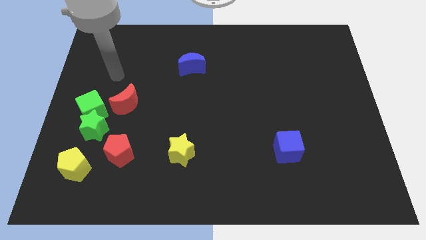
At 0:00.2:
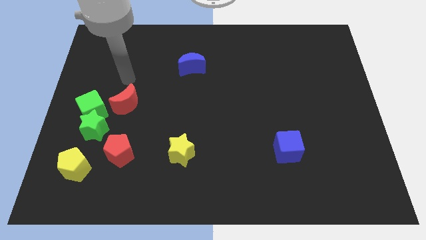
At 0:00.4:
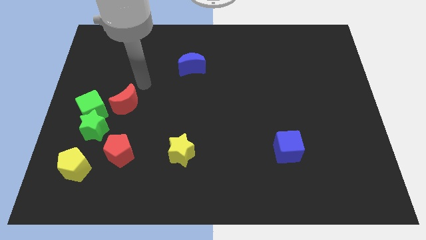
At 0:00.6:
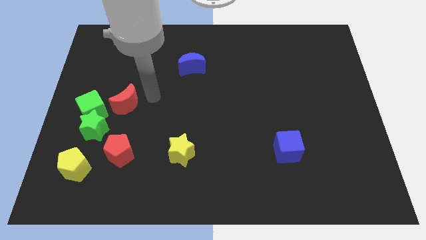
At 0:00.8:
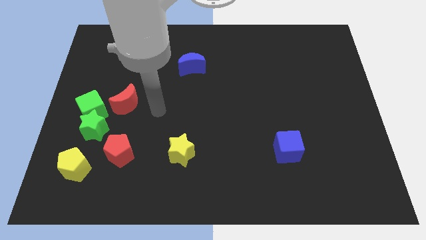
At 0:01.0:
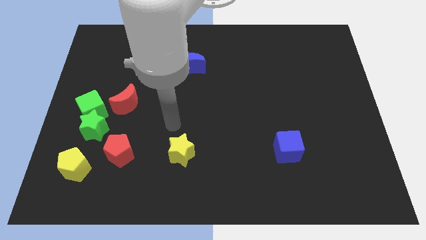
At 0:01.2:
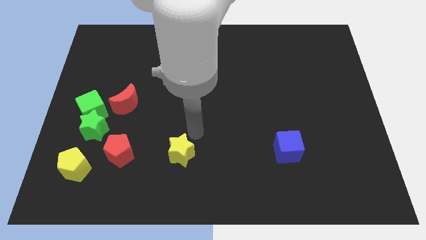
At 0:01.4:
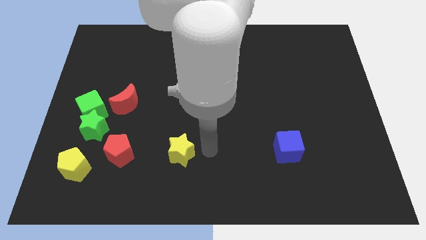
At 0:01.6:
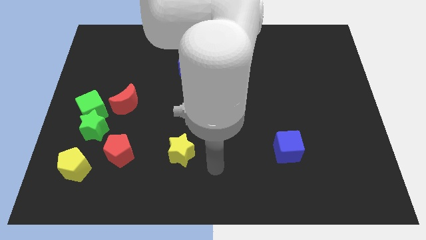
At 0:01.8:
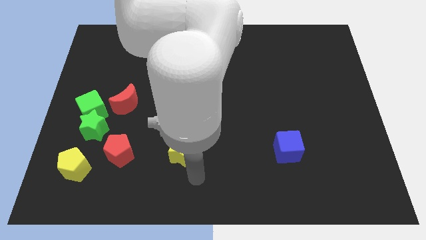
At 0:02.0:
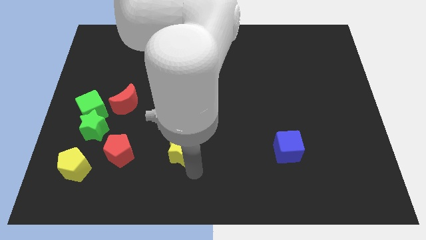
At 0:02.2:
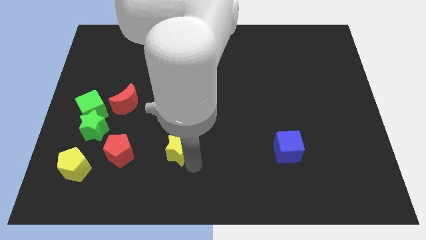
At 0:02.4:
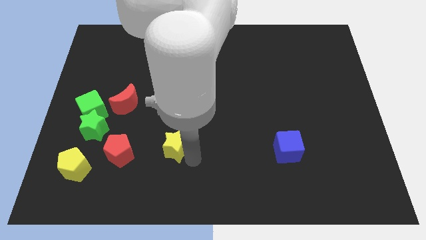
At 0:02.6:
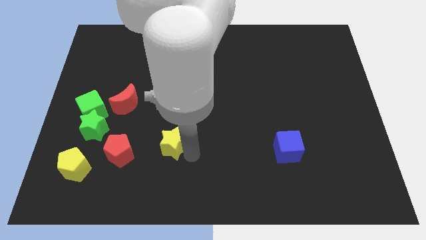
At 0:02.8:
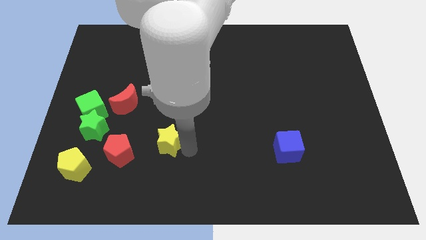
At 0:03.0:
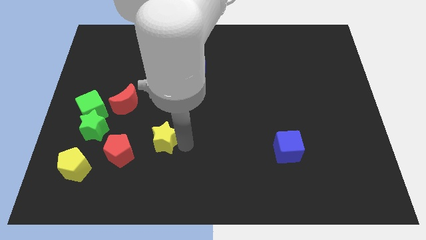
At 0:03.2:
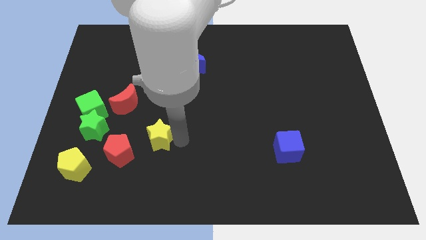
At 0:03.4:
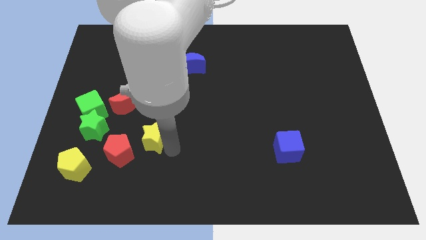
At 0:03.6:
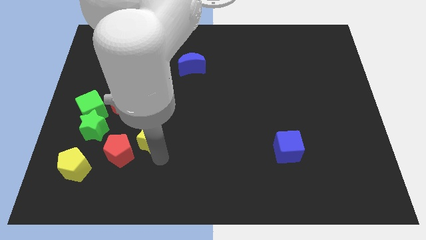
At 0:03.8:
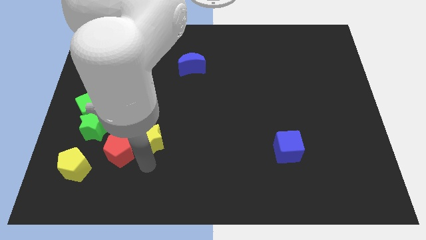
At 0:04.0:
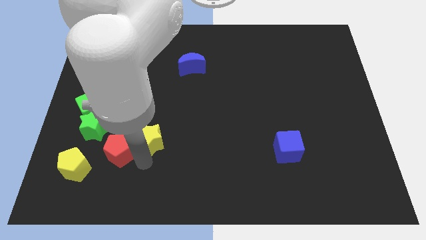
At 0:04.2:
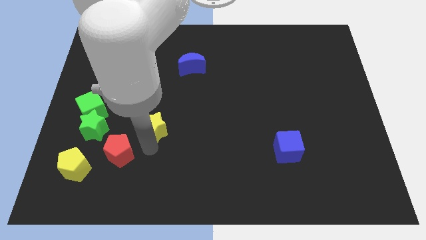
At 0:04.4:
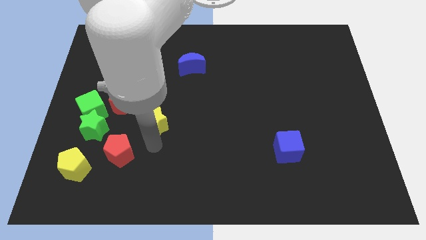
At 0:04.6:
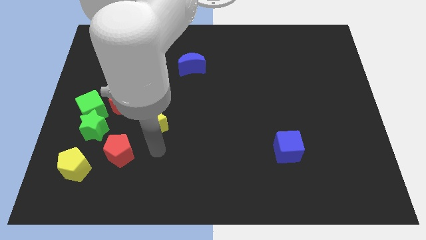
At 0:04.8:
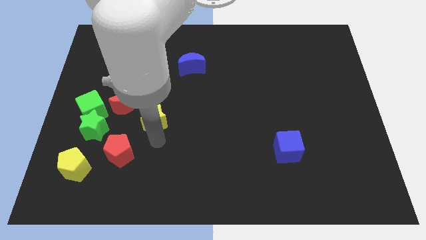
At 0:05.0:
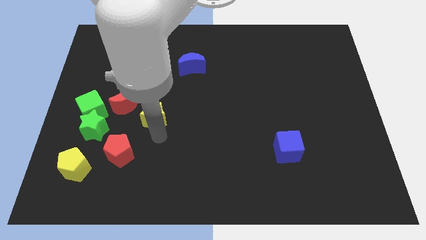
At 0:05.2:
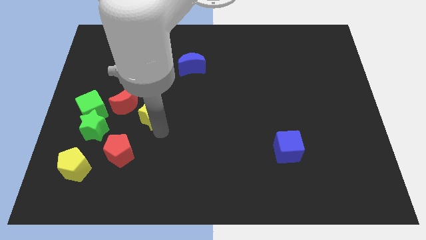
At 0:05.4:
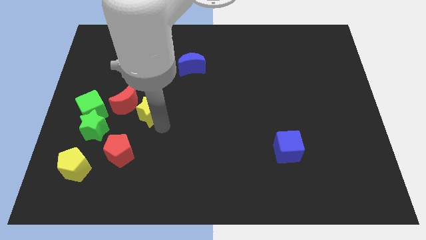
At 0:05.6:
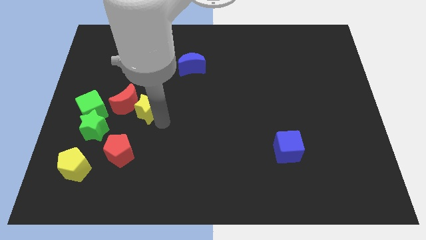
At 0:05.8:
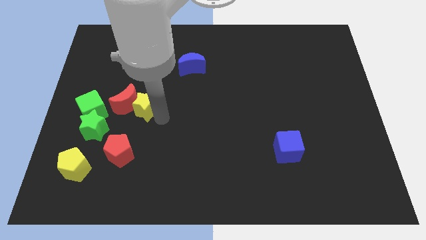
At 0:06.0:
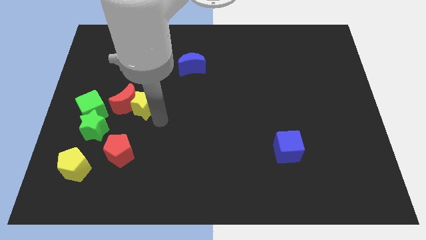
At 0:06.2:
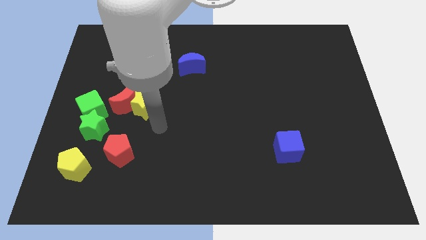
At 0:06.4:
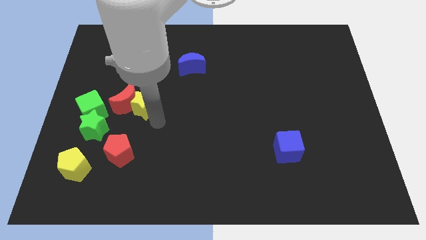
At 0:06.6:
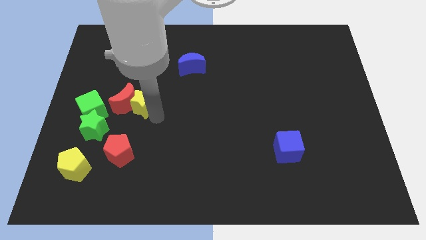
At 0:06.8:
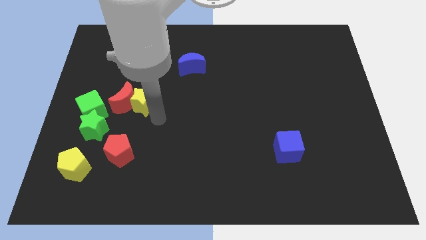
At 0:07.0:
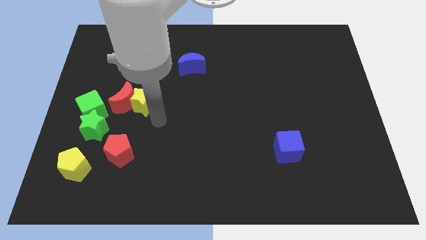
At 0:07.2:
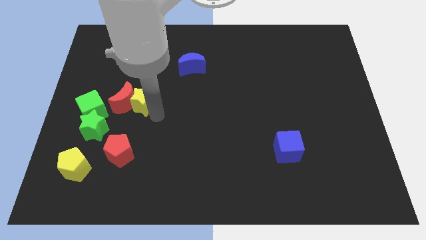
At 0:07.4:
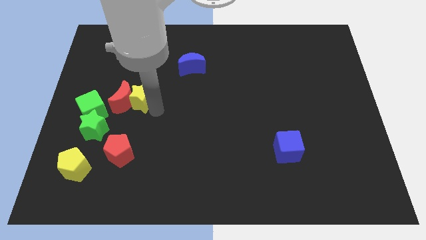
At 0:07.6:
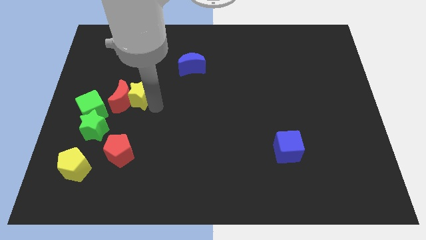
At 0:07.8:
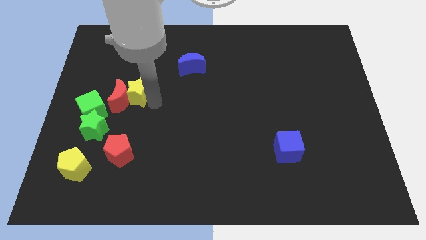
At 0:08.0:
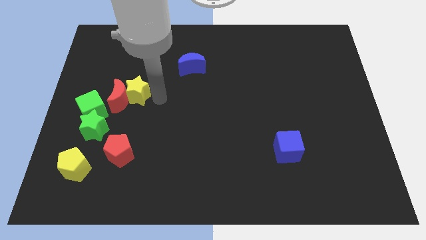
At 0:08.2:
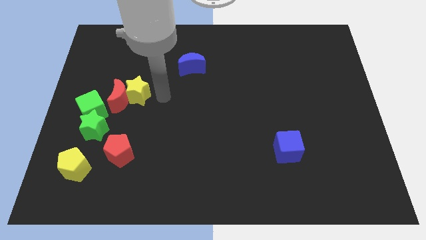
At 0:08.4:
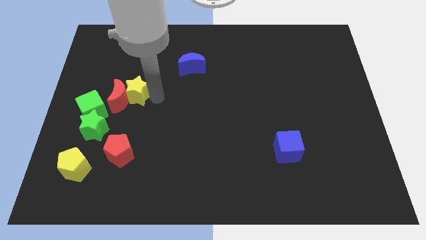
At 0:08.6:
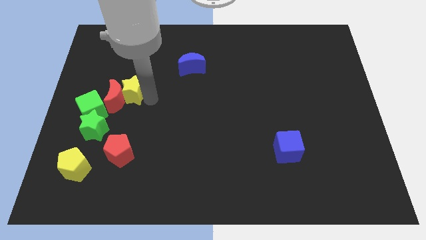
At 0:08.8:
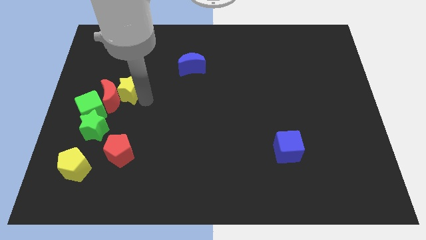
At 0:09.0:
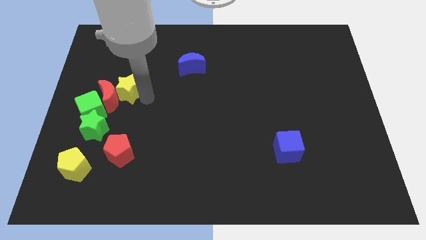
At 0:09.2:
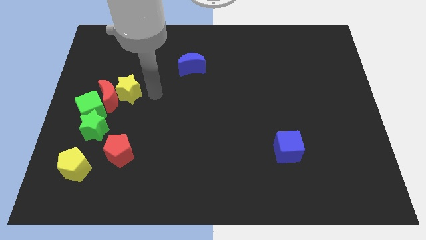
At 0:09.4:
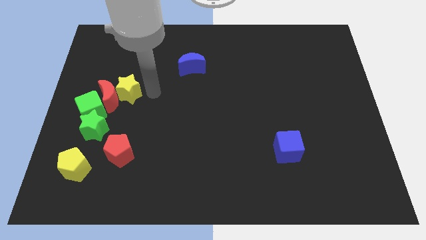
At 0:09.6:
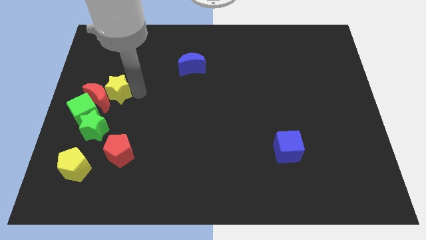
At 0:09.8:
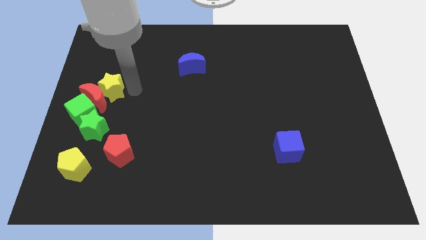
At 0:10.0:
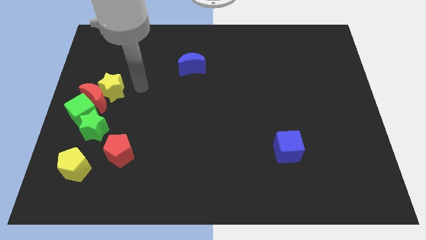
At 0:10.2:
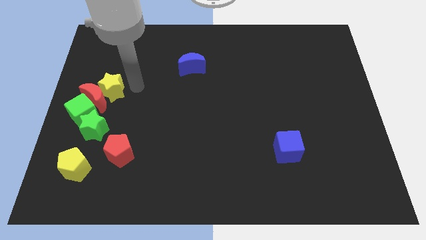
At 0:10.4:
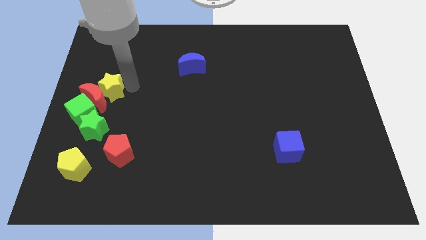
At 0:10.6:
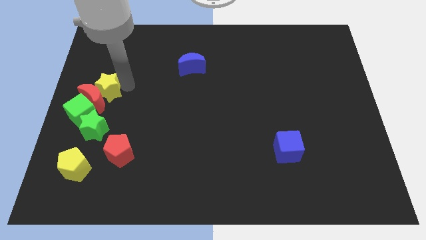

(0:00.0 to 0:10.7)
slide the yellow star to the left side of the board
